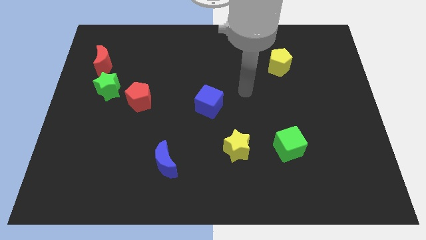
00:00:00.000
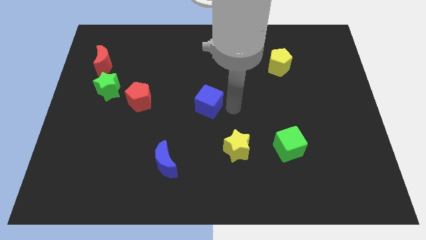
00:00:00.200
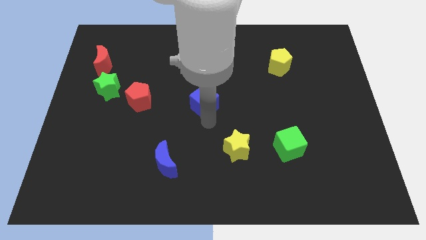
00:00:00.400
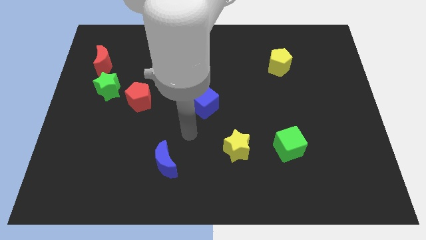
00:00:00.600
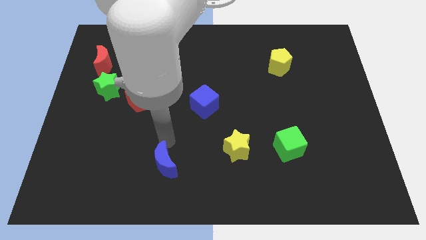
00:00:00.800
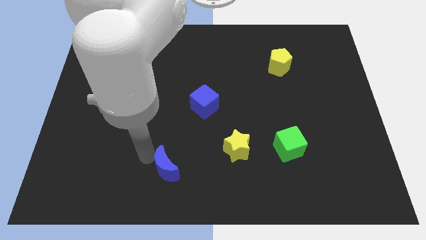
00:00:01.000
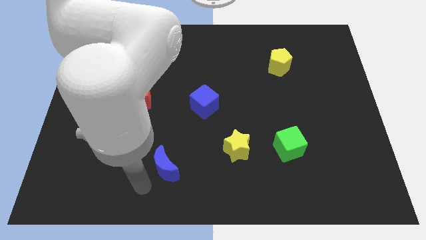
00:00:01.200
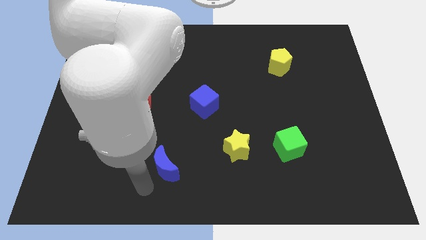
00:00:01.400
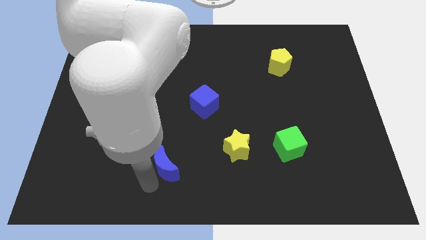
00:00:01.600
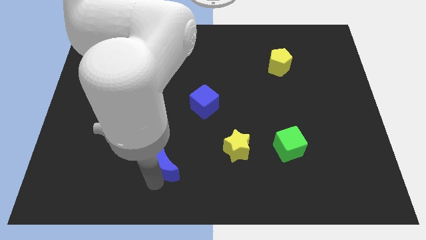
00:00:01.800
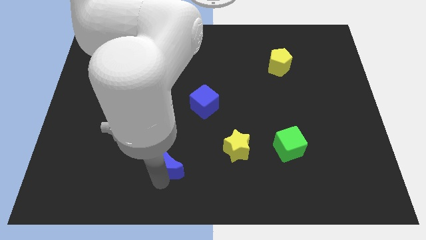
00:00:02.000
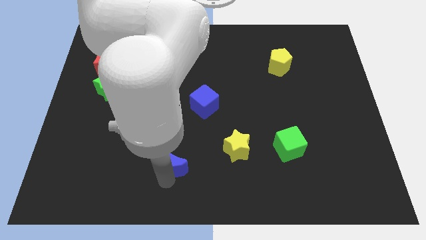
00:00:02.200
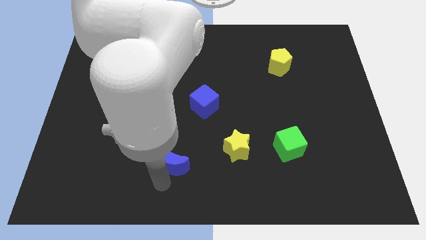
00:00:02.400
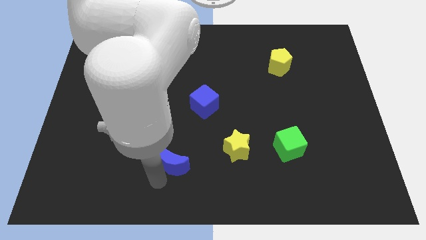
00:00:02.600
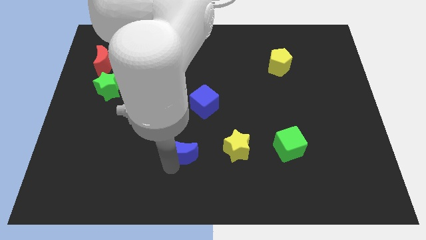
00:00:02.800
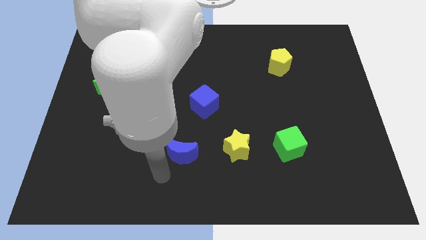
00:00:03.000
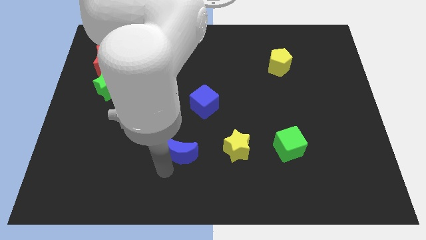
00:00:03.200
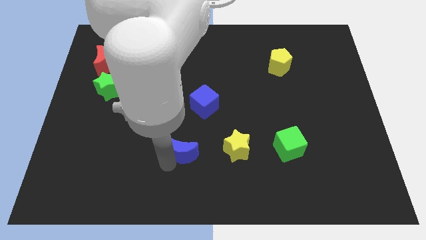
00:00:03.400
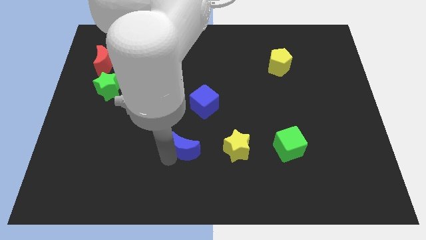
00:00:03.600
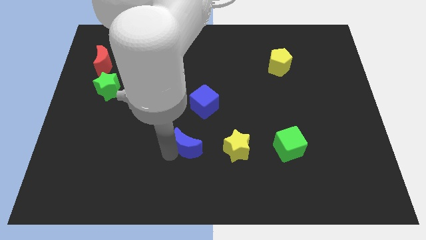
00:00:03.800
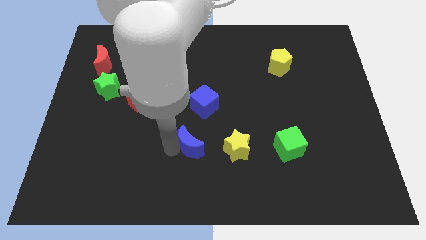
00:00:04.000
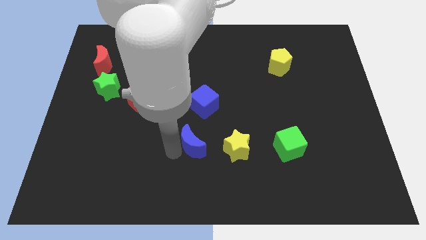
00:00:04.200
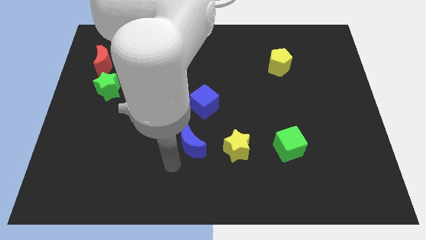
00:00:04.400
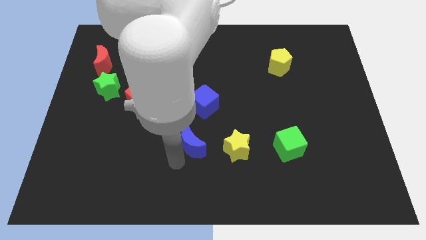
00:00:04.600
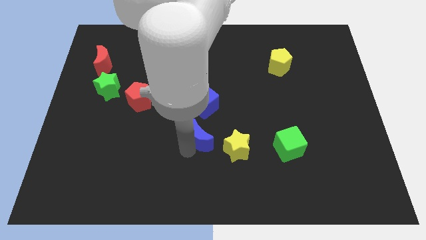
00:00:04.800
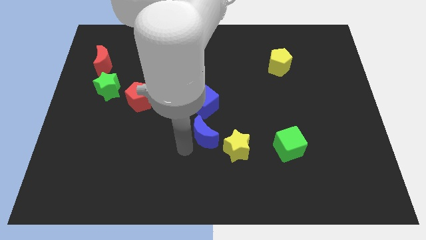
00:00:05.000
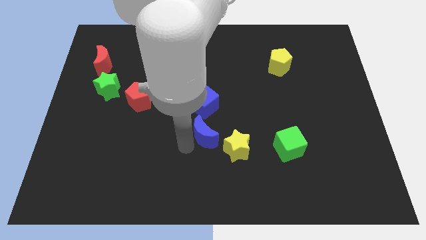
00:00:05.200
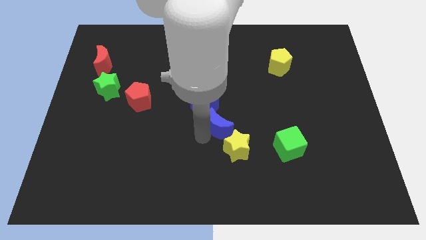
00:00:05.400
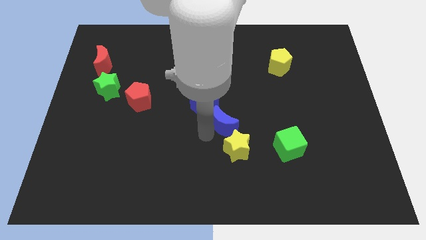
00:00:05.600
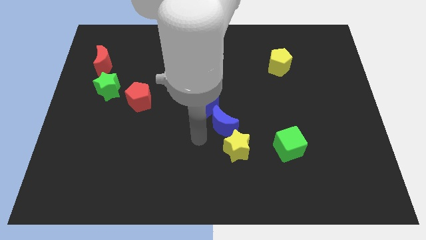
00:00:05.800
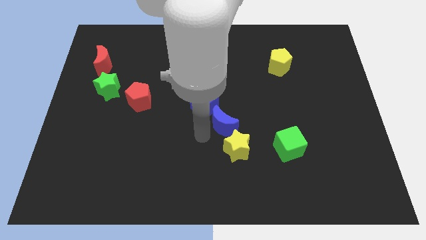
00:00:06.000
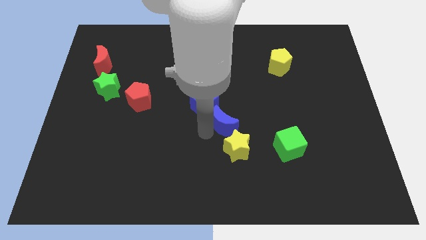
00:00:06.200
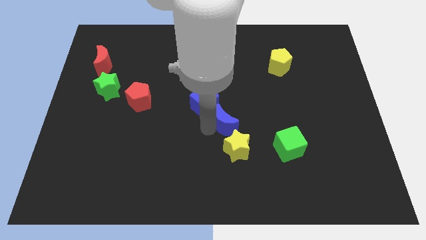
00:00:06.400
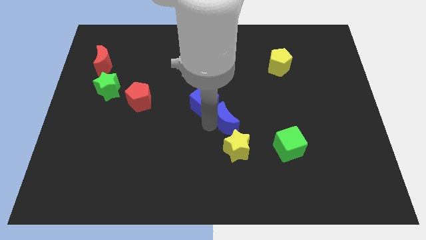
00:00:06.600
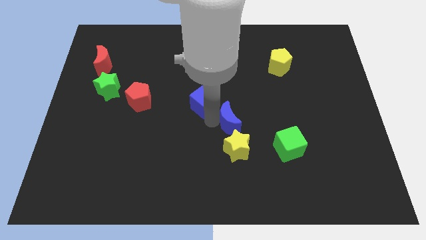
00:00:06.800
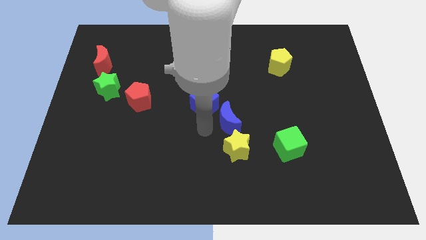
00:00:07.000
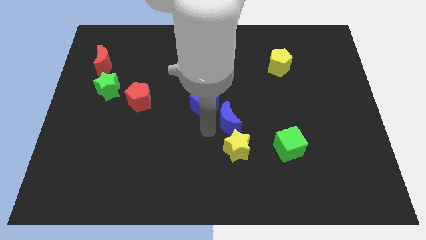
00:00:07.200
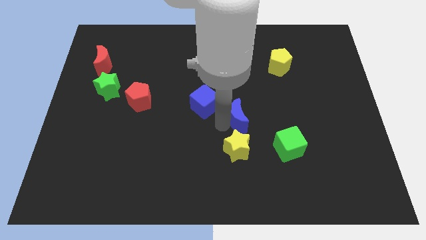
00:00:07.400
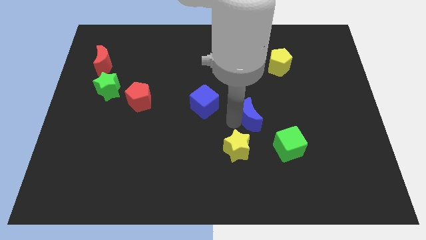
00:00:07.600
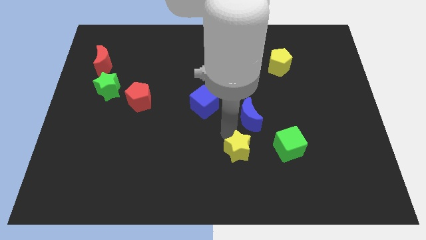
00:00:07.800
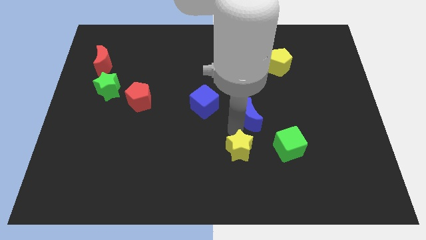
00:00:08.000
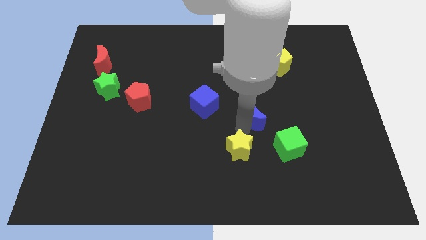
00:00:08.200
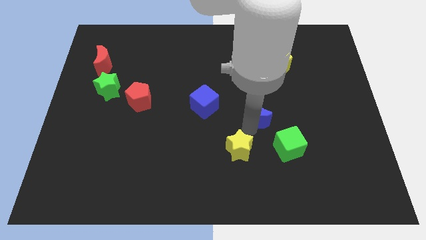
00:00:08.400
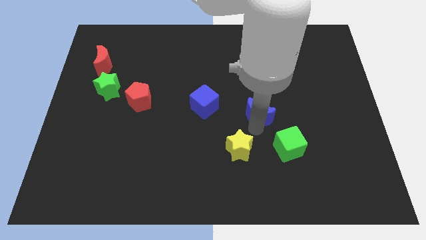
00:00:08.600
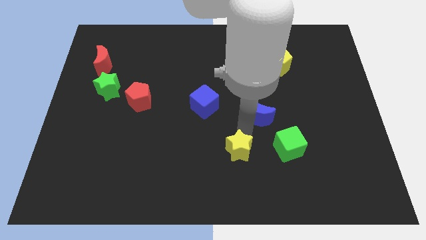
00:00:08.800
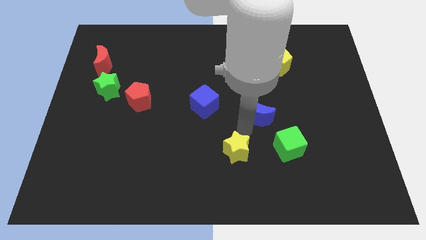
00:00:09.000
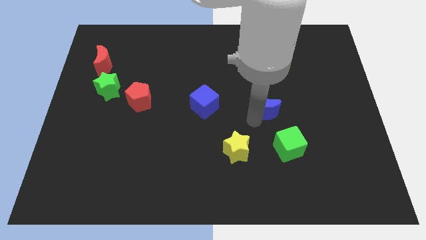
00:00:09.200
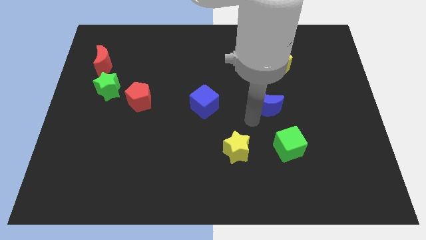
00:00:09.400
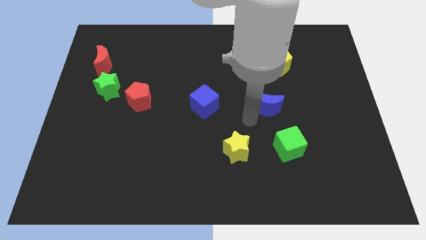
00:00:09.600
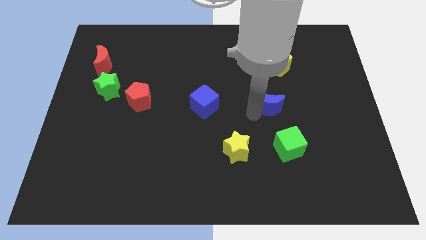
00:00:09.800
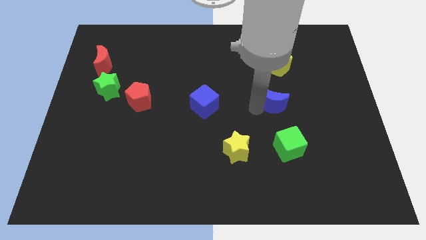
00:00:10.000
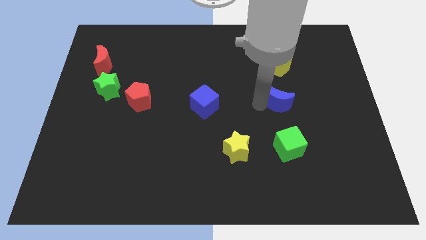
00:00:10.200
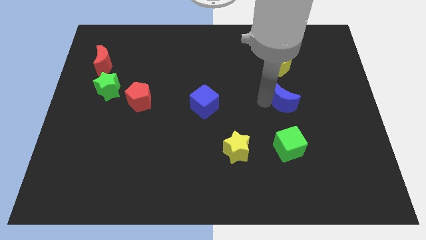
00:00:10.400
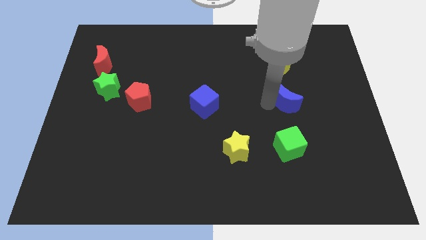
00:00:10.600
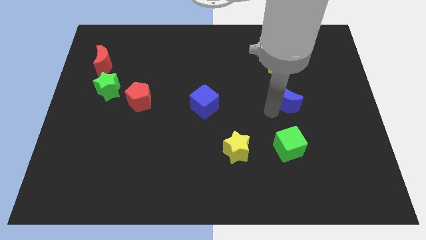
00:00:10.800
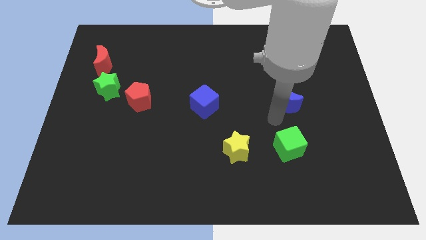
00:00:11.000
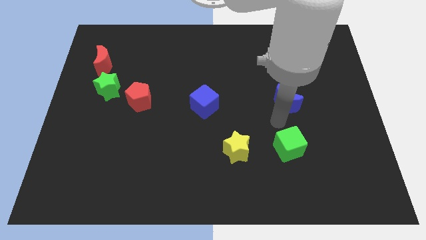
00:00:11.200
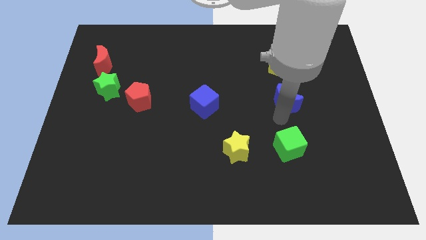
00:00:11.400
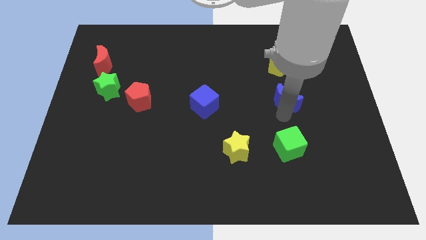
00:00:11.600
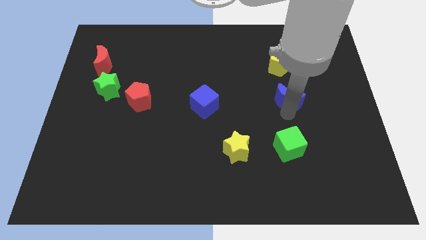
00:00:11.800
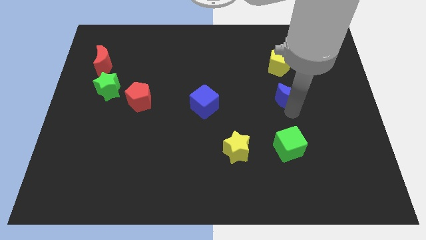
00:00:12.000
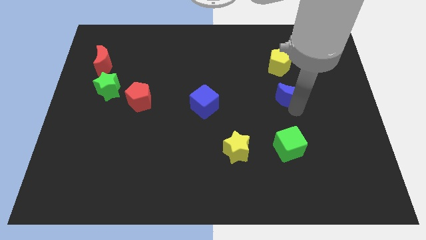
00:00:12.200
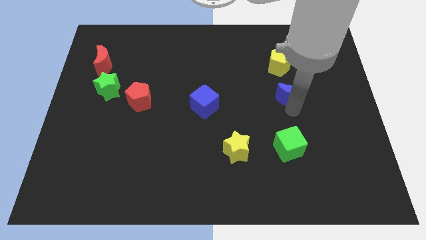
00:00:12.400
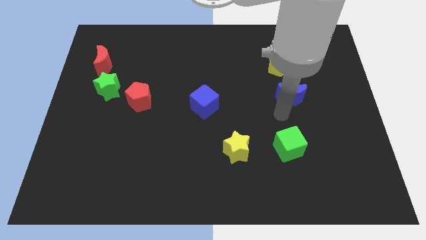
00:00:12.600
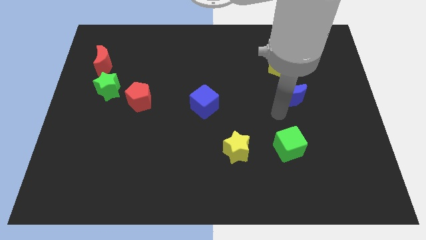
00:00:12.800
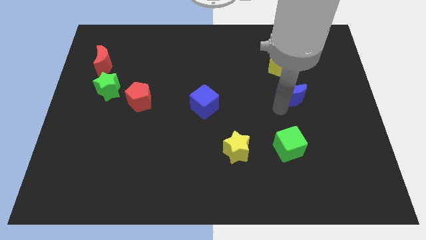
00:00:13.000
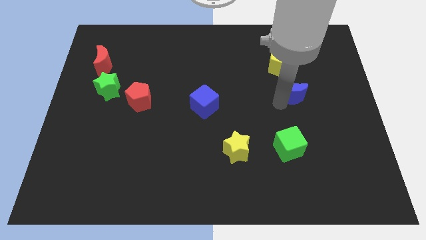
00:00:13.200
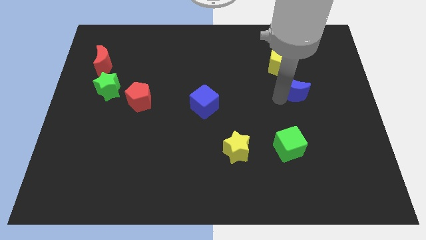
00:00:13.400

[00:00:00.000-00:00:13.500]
put the blue moon to the bottom right side of the yellow pentagon

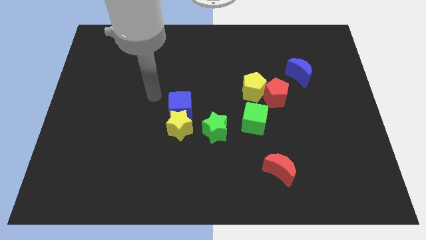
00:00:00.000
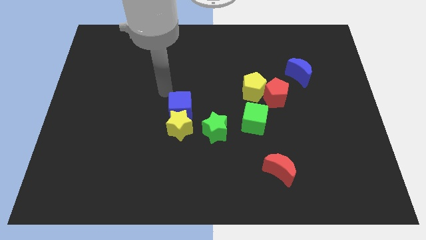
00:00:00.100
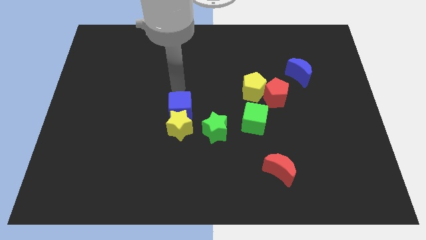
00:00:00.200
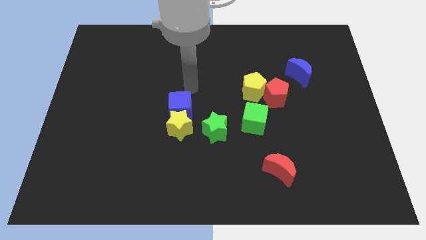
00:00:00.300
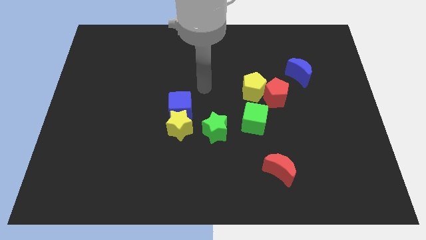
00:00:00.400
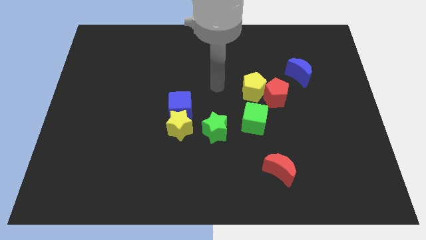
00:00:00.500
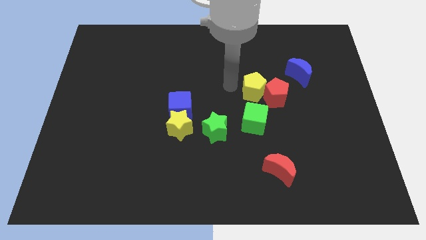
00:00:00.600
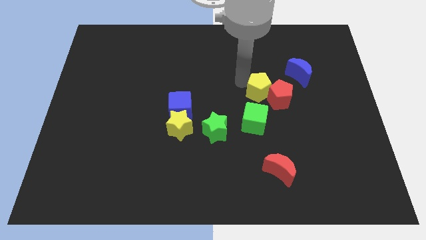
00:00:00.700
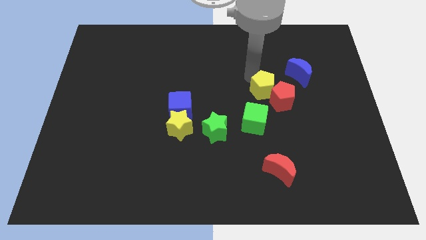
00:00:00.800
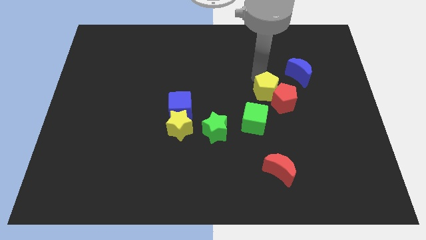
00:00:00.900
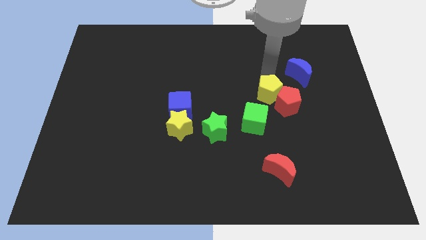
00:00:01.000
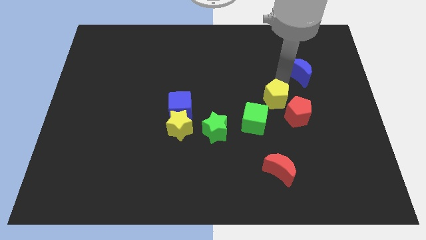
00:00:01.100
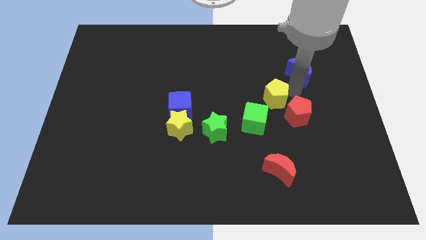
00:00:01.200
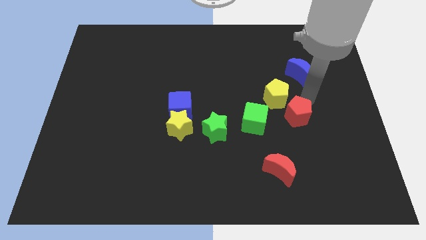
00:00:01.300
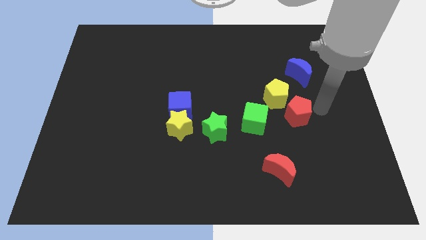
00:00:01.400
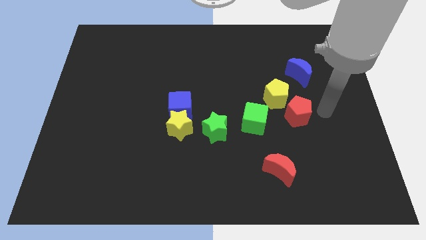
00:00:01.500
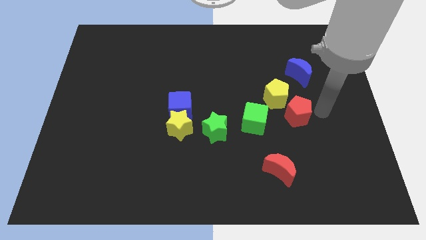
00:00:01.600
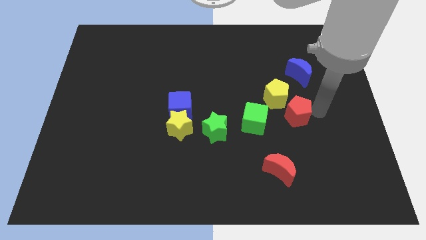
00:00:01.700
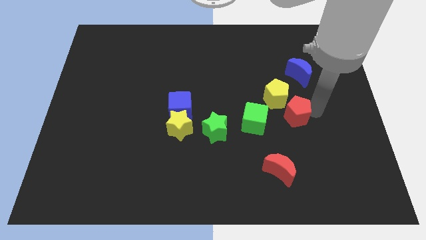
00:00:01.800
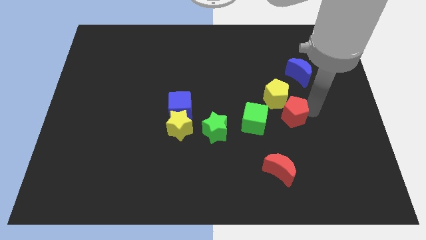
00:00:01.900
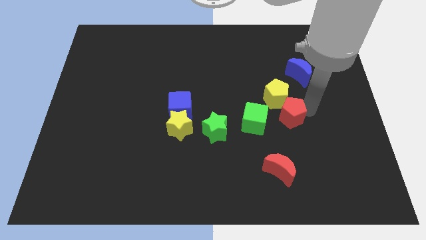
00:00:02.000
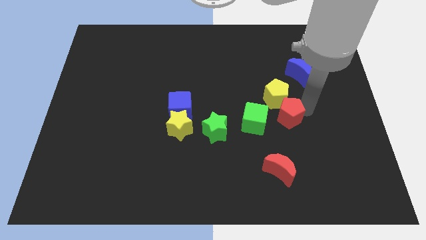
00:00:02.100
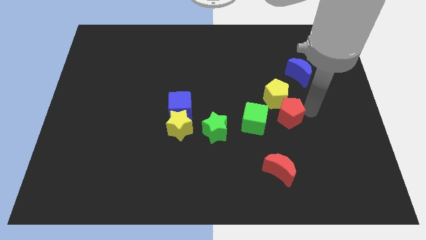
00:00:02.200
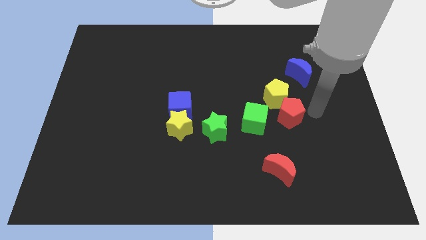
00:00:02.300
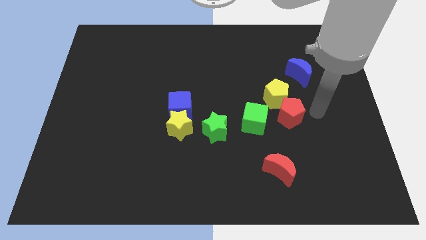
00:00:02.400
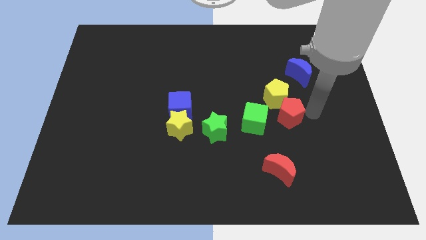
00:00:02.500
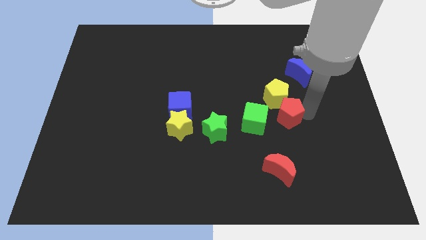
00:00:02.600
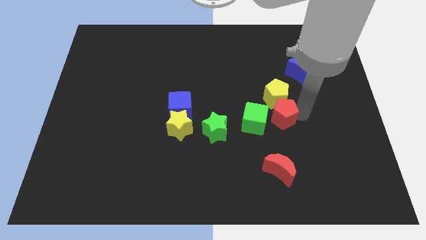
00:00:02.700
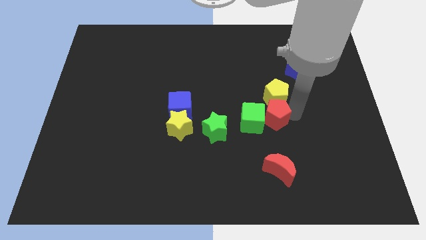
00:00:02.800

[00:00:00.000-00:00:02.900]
put the red pentagon right of the green star
